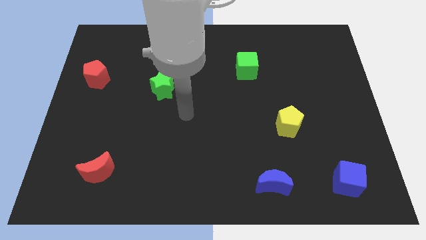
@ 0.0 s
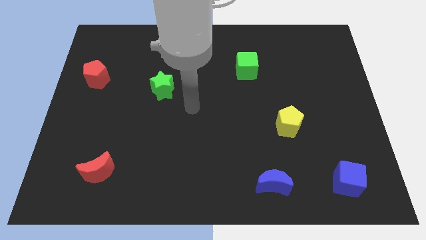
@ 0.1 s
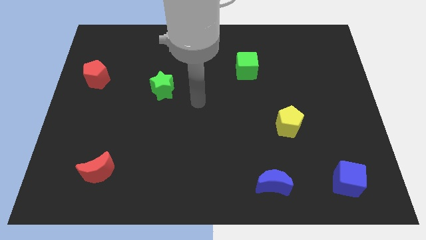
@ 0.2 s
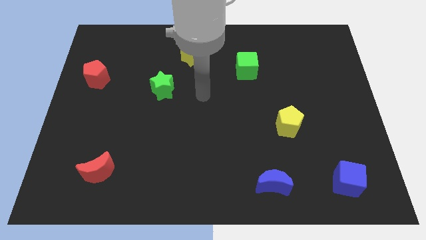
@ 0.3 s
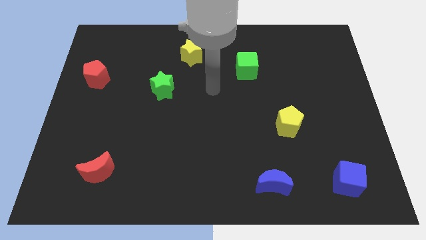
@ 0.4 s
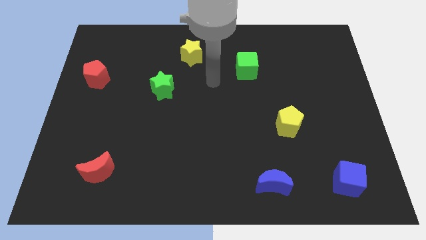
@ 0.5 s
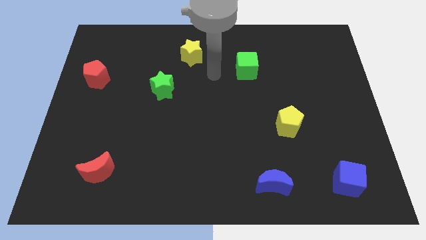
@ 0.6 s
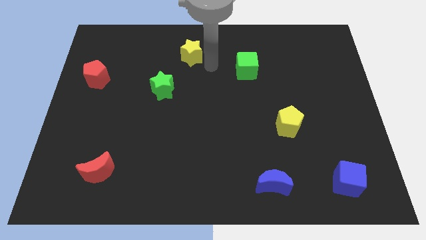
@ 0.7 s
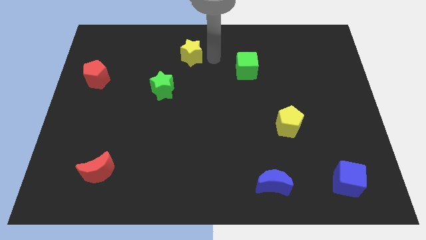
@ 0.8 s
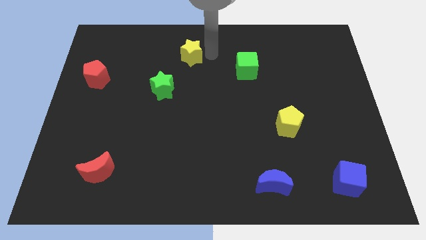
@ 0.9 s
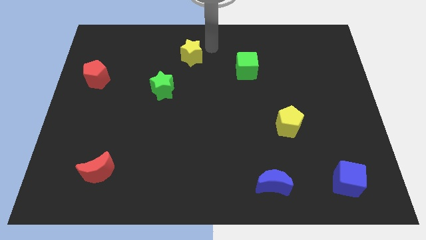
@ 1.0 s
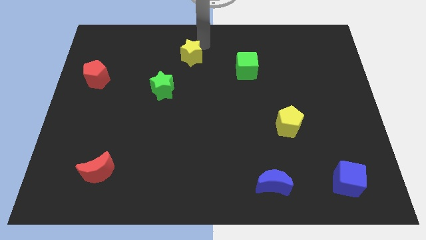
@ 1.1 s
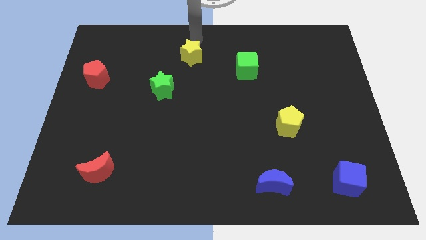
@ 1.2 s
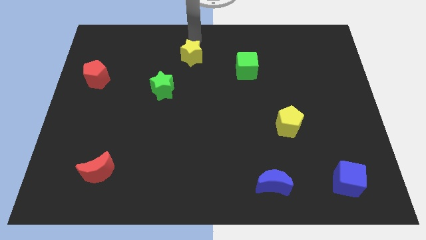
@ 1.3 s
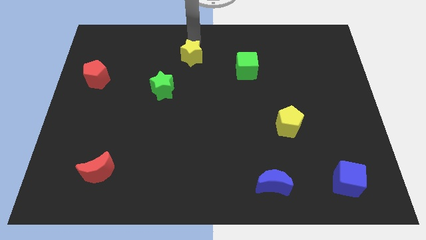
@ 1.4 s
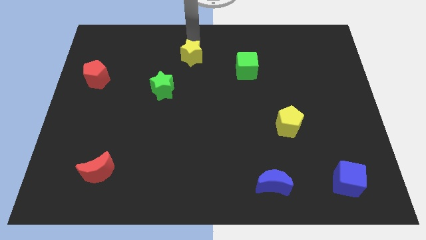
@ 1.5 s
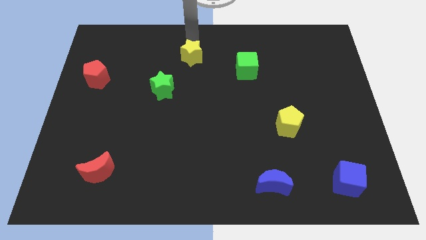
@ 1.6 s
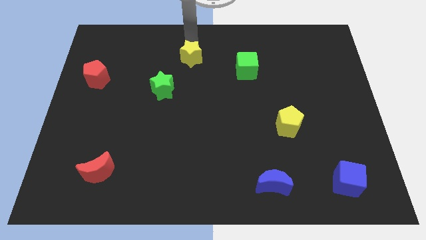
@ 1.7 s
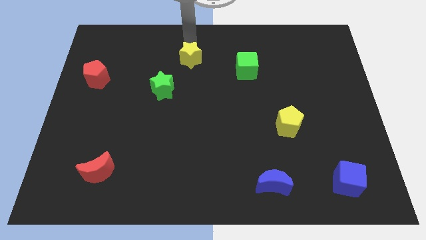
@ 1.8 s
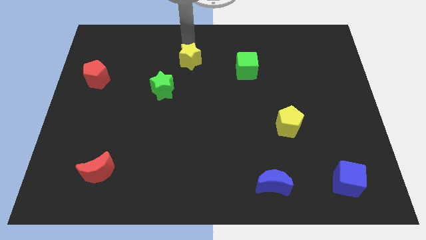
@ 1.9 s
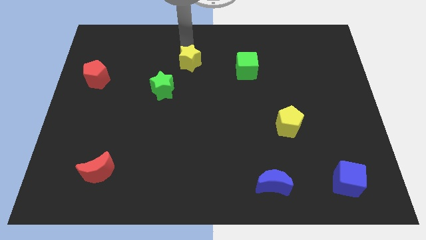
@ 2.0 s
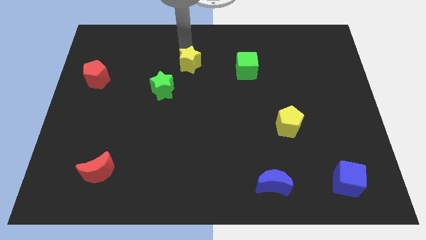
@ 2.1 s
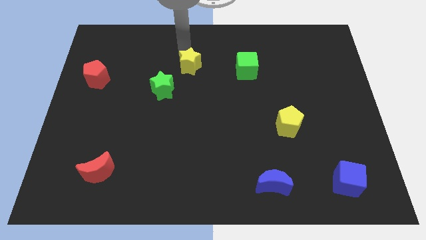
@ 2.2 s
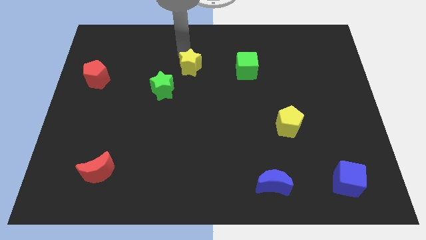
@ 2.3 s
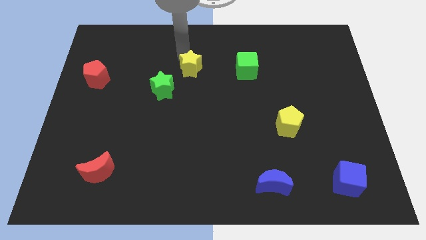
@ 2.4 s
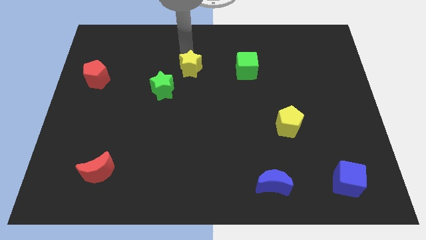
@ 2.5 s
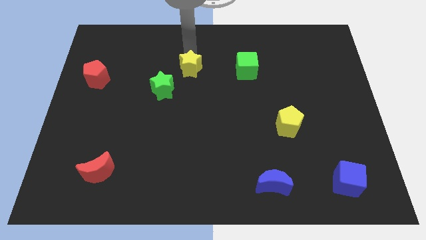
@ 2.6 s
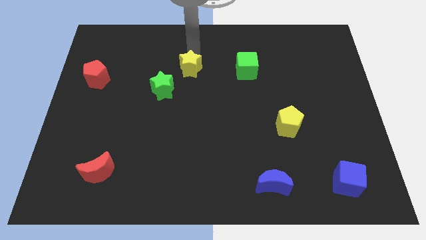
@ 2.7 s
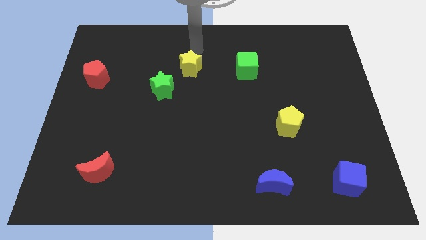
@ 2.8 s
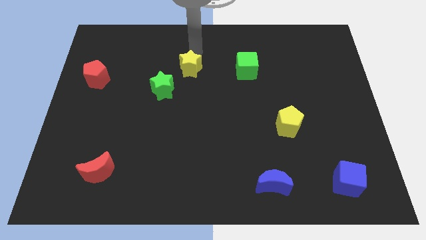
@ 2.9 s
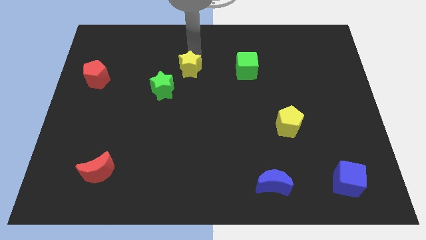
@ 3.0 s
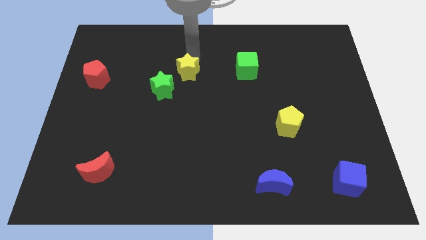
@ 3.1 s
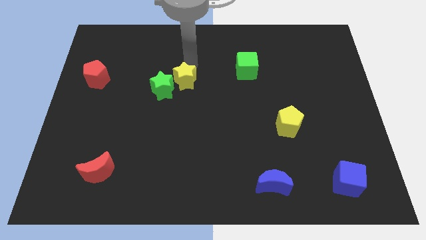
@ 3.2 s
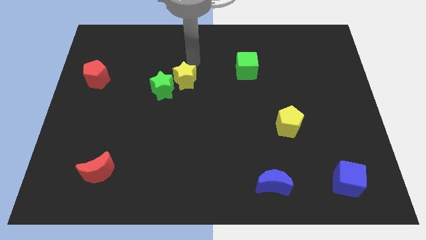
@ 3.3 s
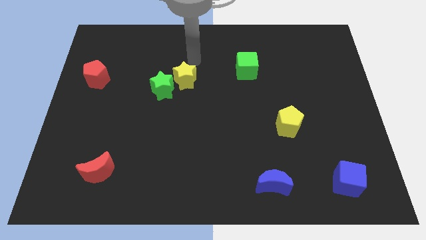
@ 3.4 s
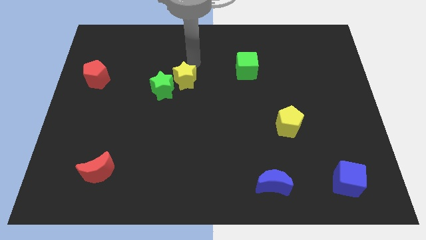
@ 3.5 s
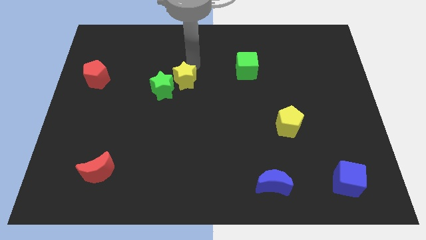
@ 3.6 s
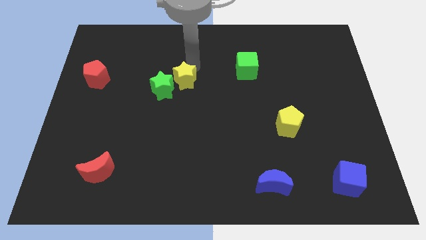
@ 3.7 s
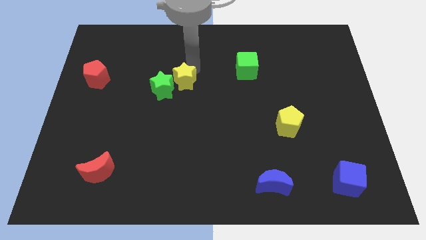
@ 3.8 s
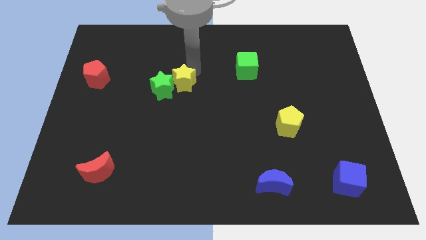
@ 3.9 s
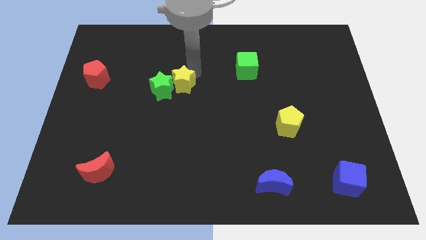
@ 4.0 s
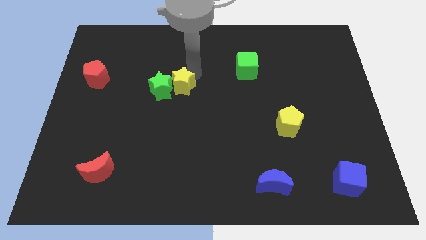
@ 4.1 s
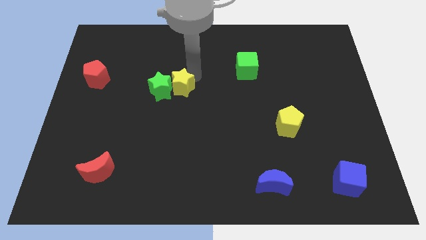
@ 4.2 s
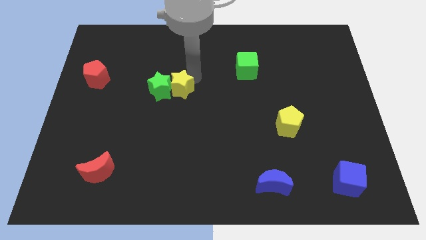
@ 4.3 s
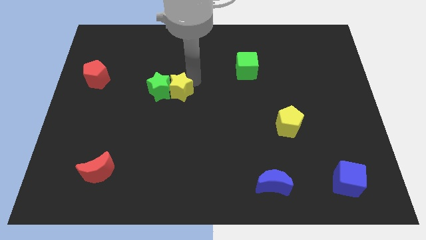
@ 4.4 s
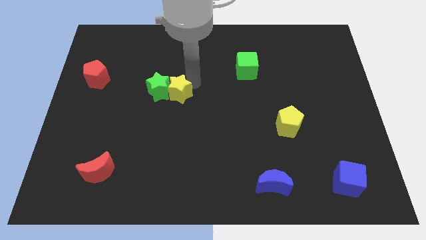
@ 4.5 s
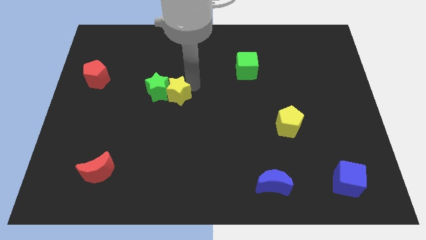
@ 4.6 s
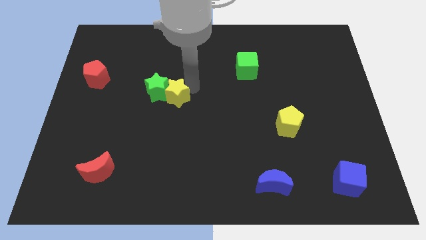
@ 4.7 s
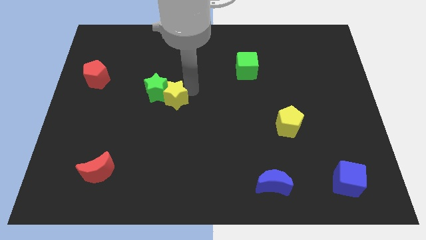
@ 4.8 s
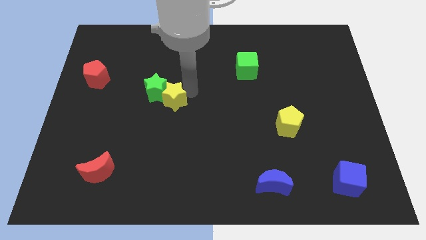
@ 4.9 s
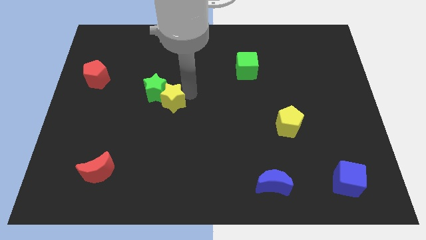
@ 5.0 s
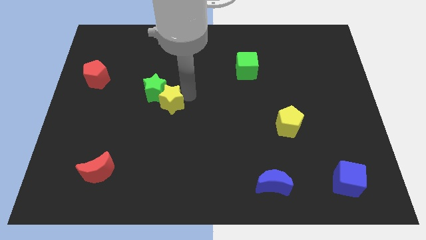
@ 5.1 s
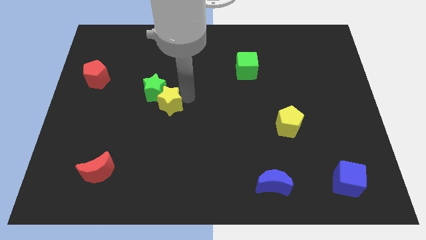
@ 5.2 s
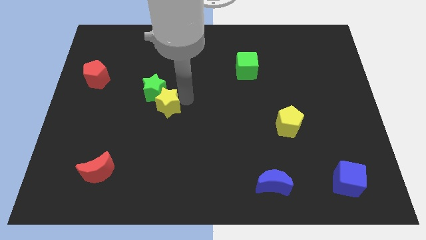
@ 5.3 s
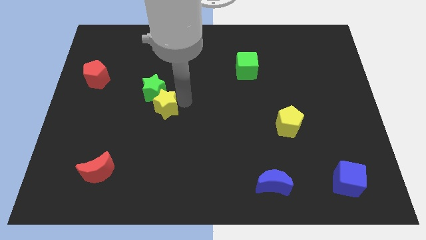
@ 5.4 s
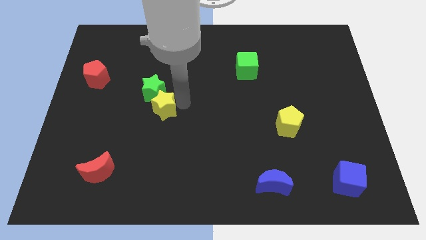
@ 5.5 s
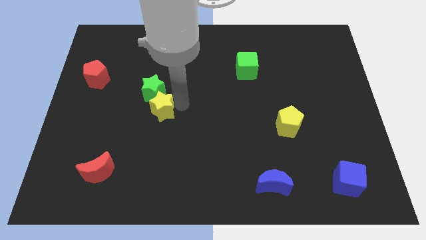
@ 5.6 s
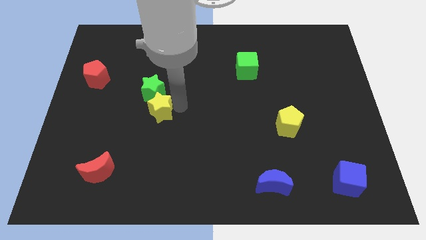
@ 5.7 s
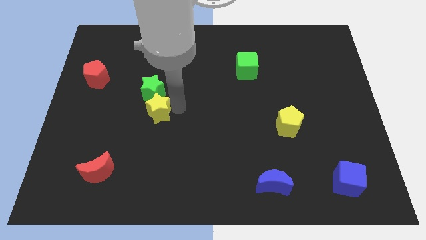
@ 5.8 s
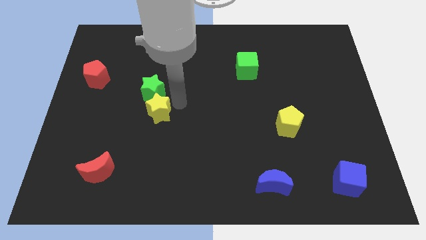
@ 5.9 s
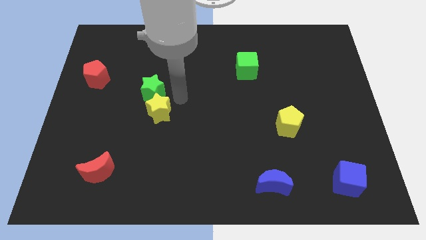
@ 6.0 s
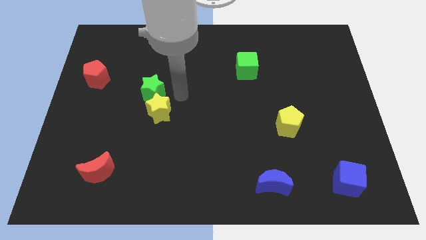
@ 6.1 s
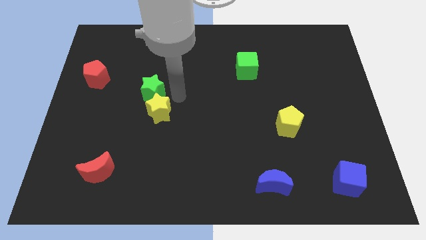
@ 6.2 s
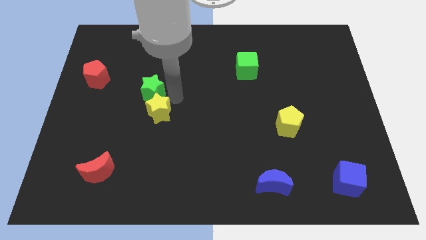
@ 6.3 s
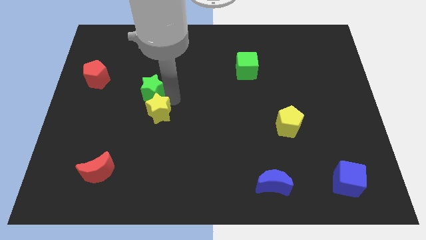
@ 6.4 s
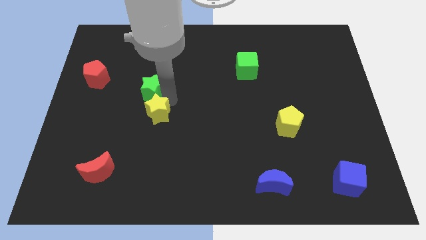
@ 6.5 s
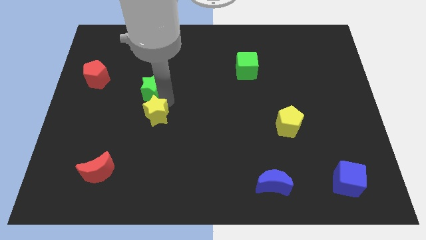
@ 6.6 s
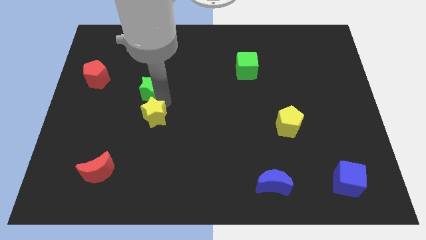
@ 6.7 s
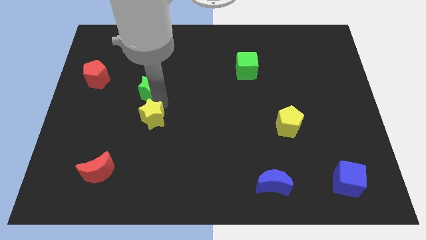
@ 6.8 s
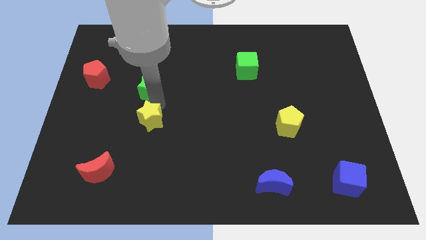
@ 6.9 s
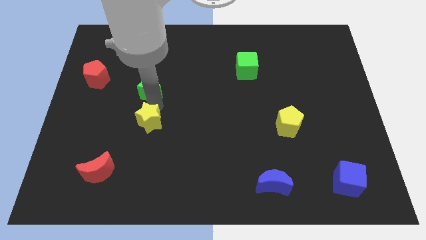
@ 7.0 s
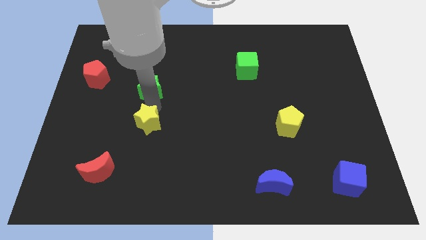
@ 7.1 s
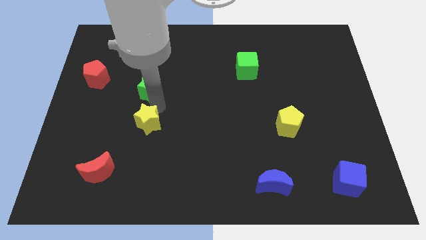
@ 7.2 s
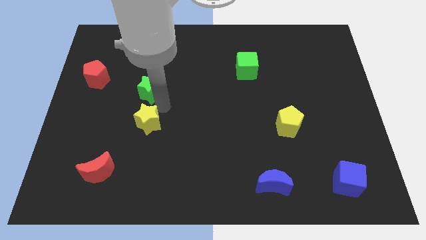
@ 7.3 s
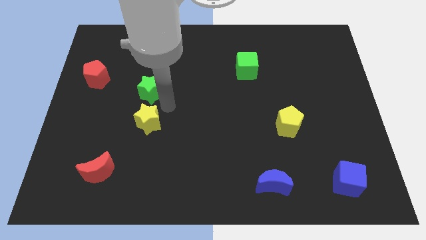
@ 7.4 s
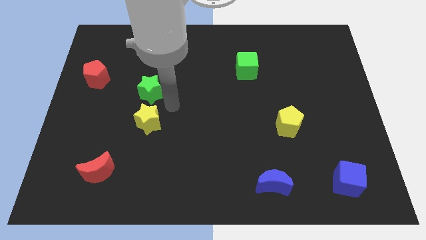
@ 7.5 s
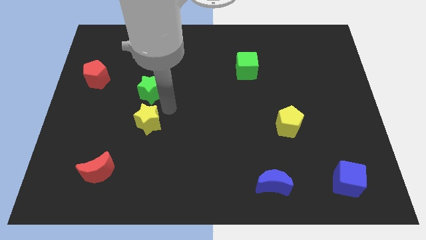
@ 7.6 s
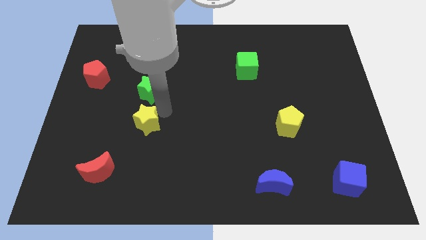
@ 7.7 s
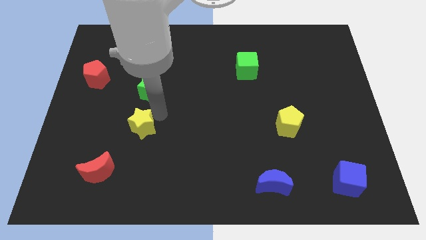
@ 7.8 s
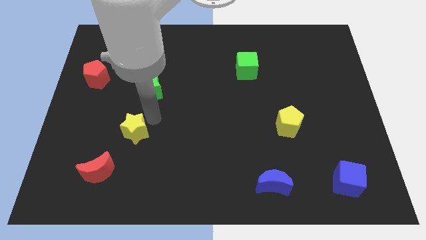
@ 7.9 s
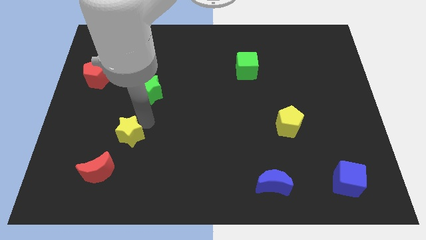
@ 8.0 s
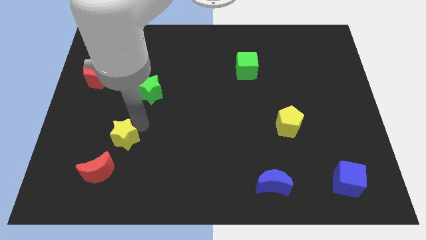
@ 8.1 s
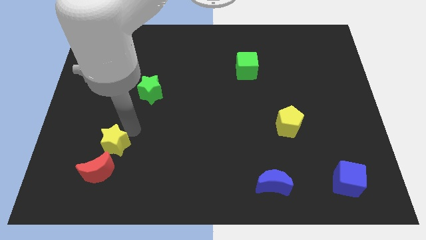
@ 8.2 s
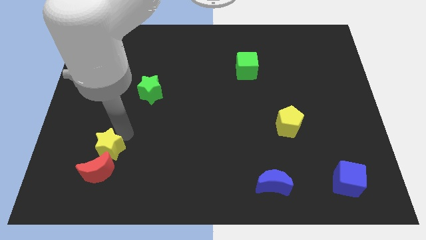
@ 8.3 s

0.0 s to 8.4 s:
push the yellow star towards the red moon
